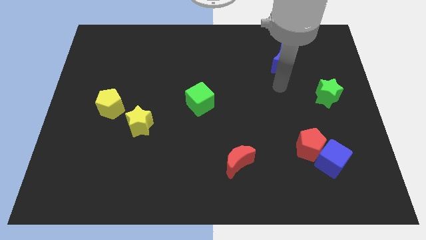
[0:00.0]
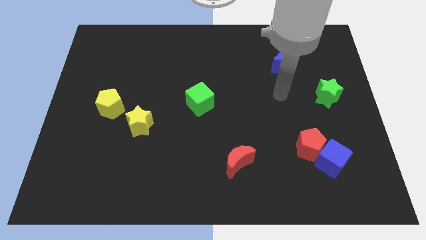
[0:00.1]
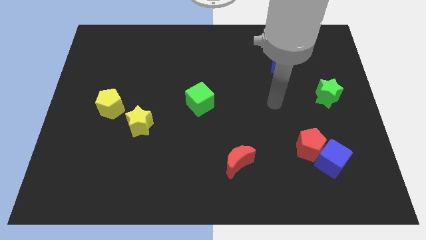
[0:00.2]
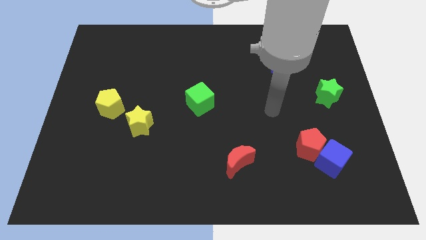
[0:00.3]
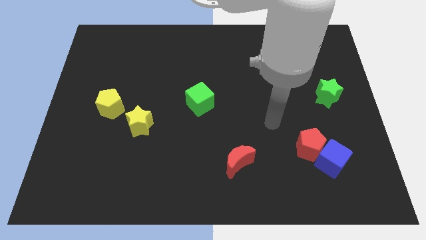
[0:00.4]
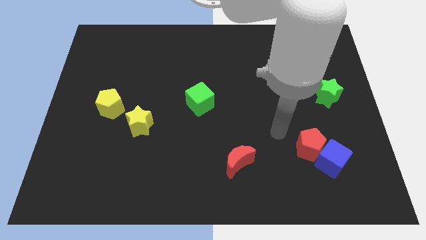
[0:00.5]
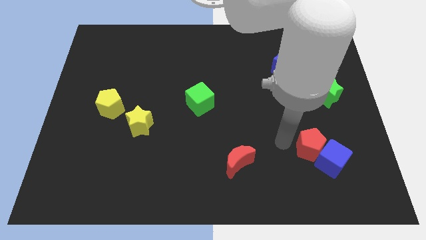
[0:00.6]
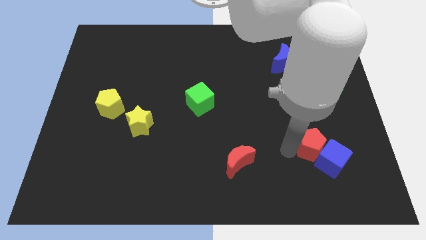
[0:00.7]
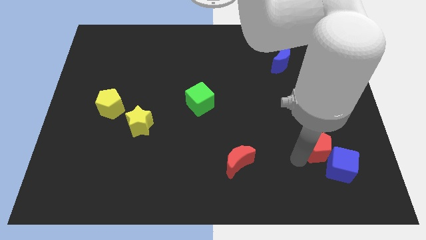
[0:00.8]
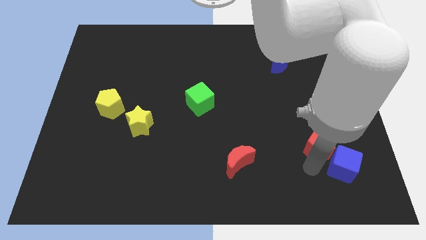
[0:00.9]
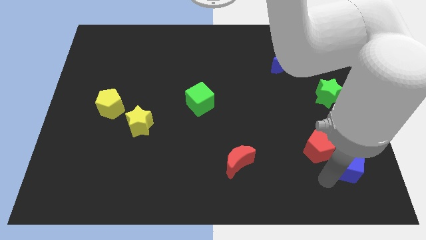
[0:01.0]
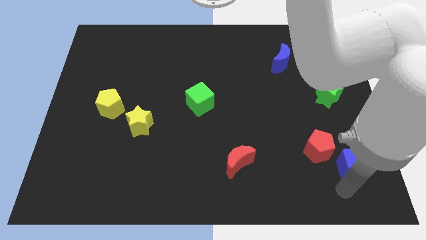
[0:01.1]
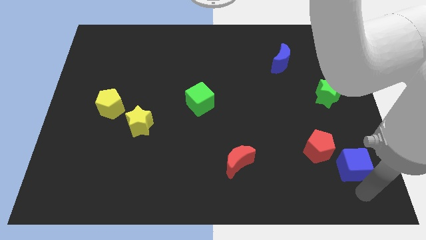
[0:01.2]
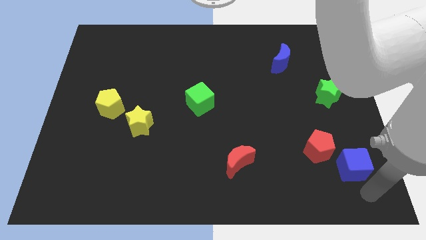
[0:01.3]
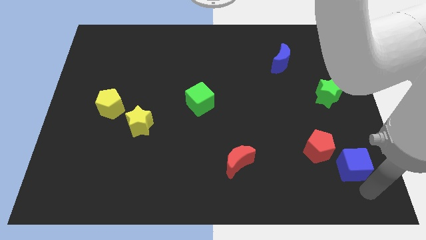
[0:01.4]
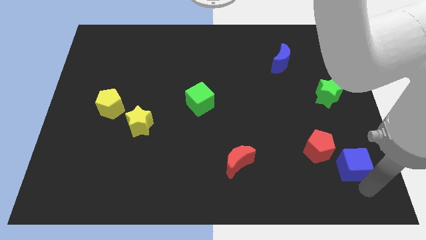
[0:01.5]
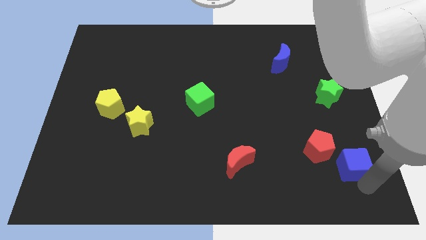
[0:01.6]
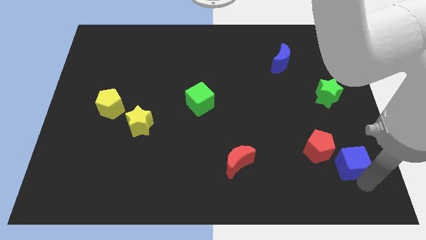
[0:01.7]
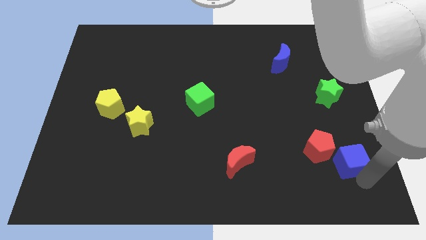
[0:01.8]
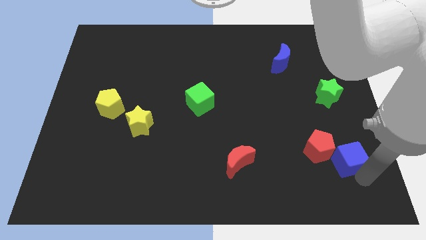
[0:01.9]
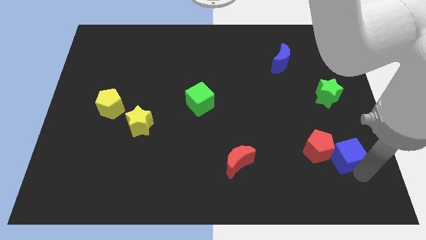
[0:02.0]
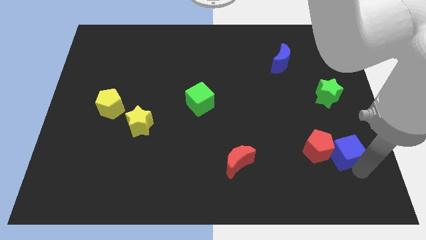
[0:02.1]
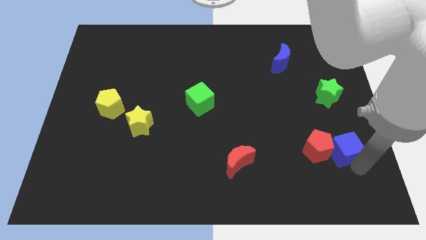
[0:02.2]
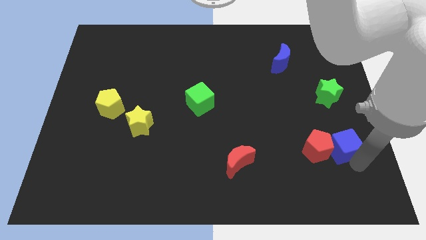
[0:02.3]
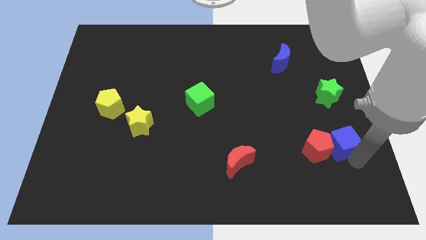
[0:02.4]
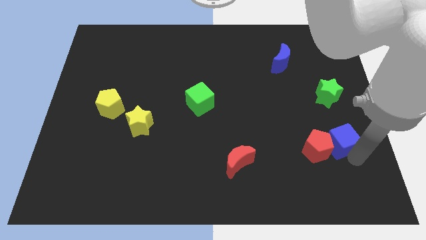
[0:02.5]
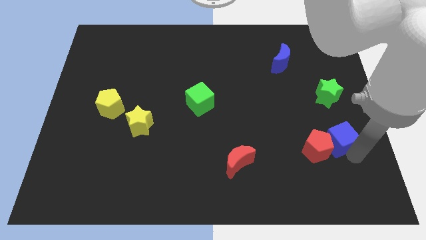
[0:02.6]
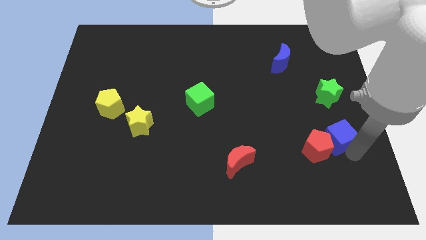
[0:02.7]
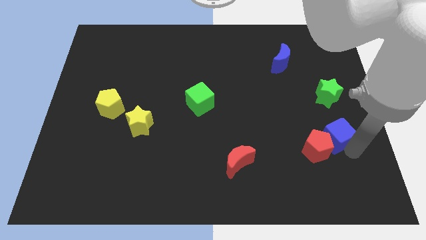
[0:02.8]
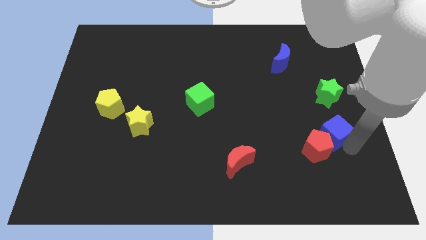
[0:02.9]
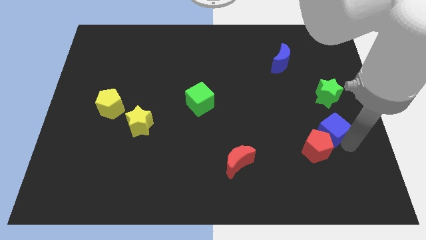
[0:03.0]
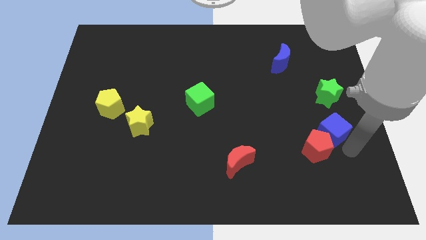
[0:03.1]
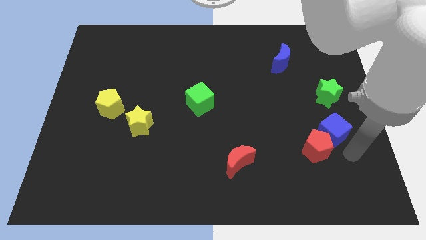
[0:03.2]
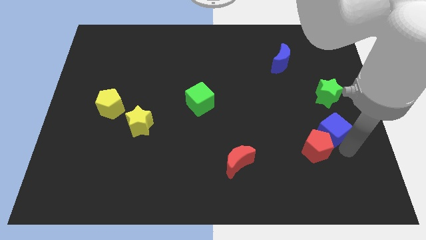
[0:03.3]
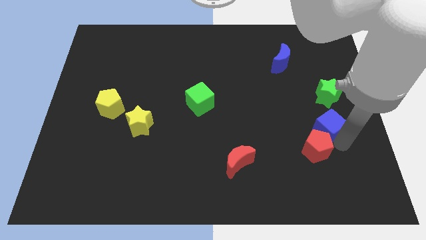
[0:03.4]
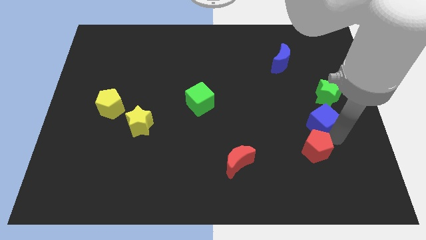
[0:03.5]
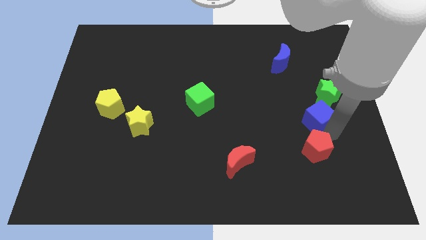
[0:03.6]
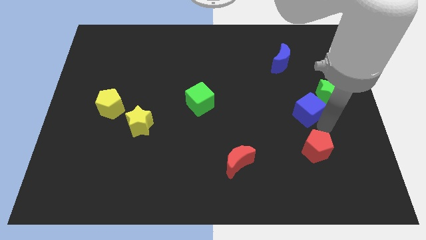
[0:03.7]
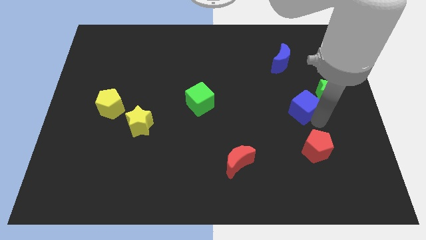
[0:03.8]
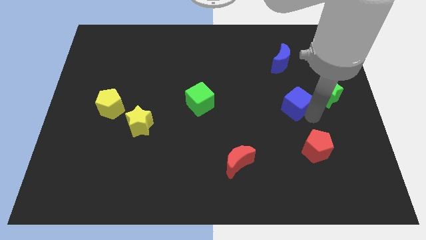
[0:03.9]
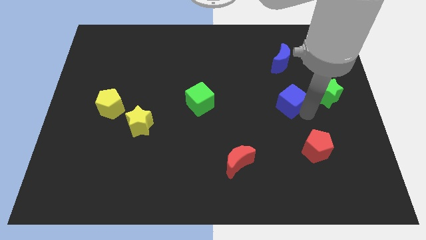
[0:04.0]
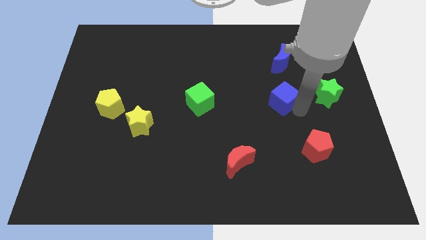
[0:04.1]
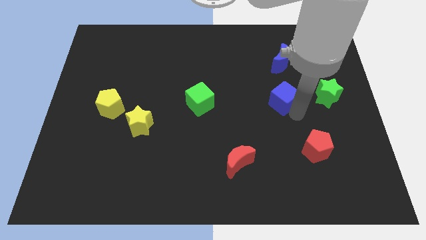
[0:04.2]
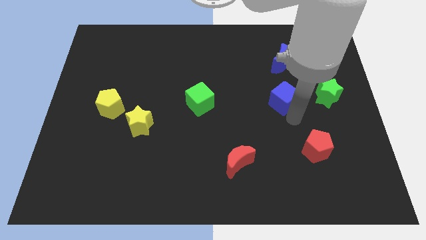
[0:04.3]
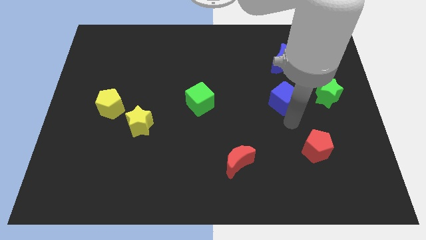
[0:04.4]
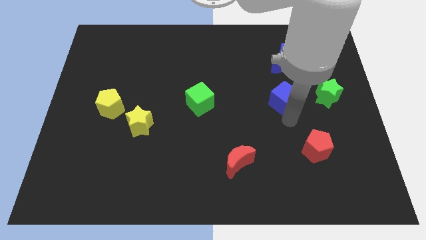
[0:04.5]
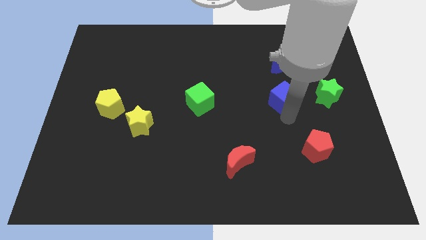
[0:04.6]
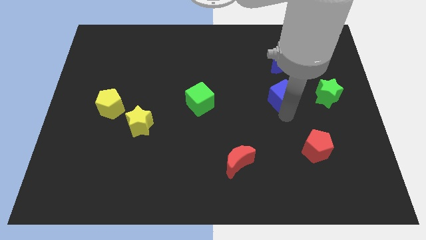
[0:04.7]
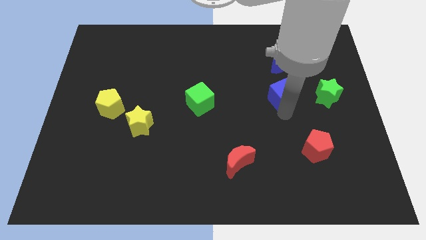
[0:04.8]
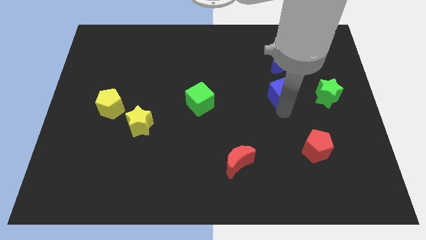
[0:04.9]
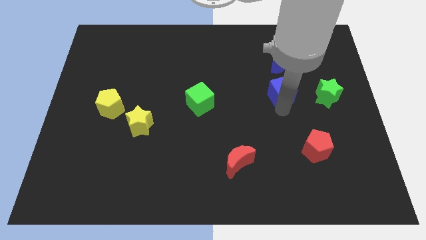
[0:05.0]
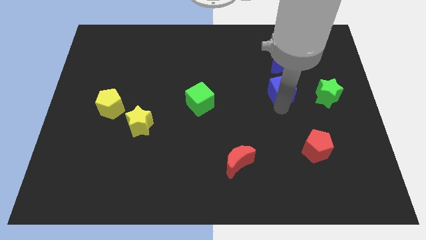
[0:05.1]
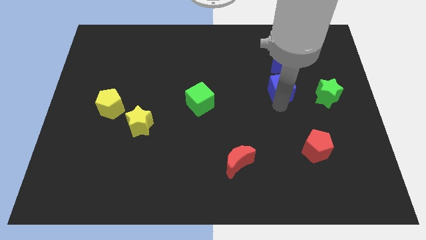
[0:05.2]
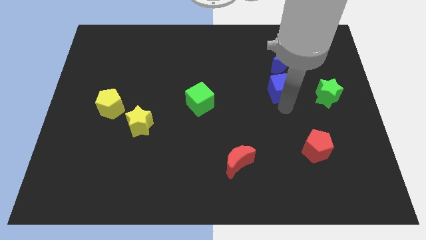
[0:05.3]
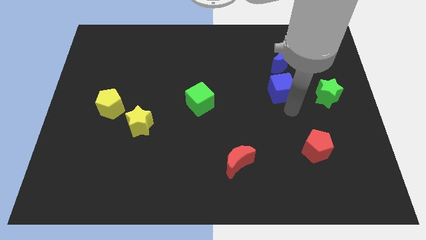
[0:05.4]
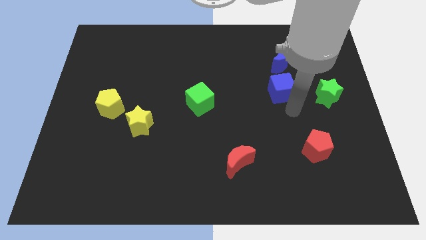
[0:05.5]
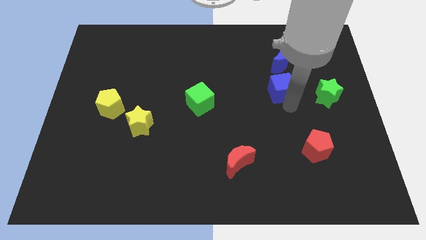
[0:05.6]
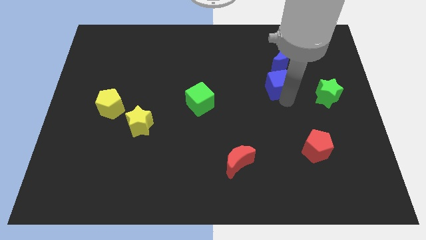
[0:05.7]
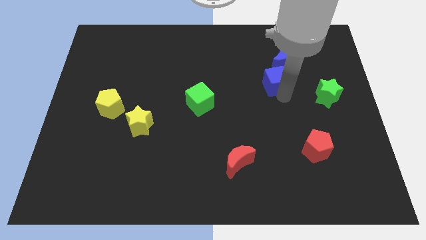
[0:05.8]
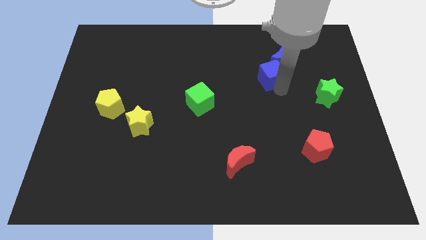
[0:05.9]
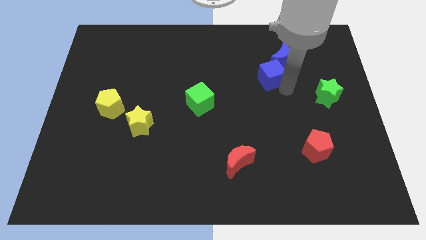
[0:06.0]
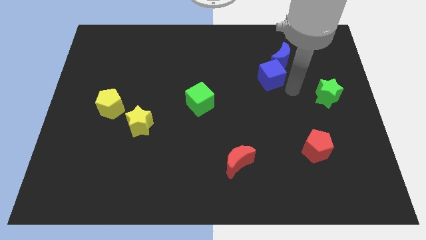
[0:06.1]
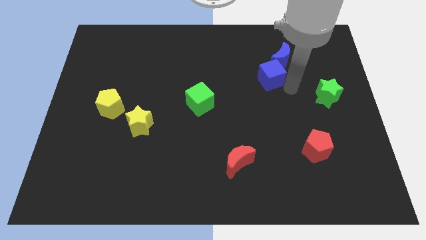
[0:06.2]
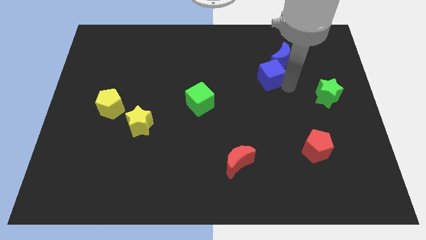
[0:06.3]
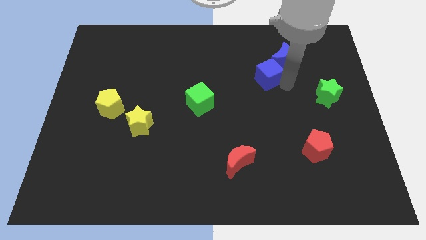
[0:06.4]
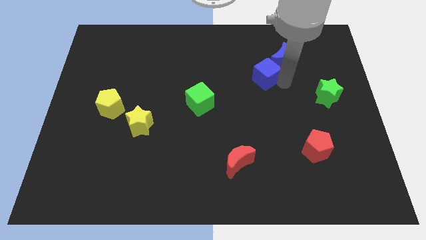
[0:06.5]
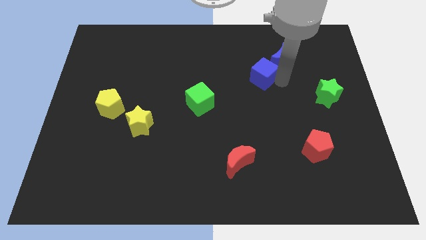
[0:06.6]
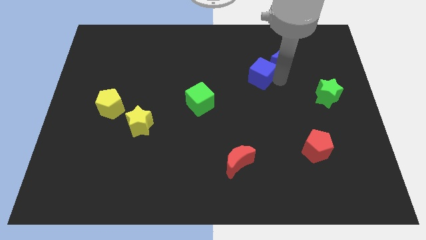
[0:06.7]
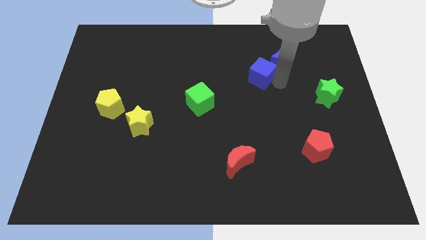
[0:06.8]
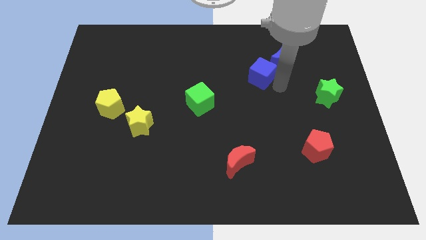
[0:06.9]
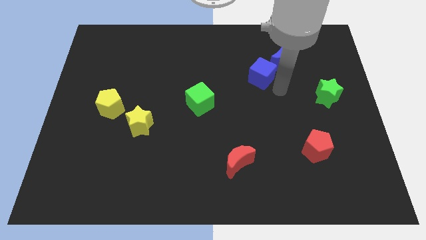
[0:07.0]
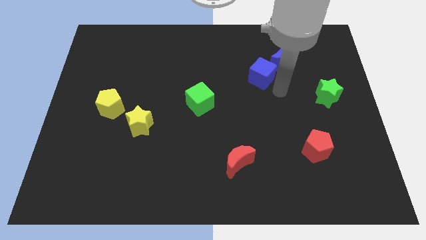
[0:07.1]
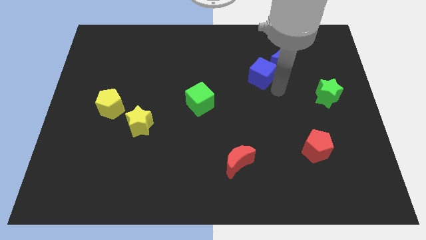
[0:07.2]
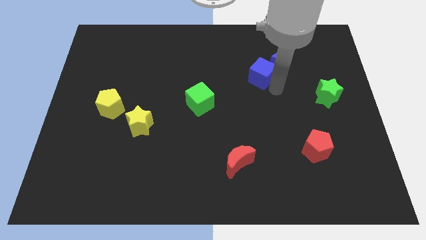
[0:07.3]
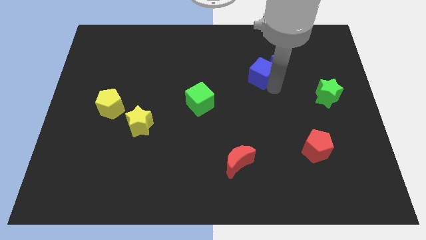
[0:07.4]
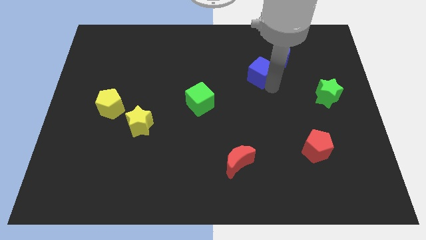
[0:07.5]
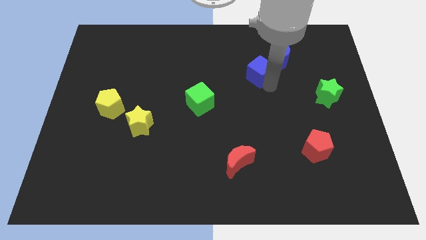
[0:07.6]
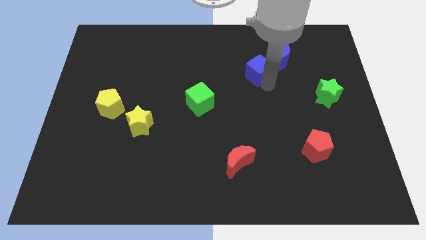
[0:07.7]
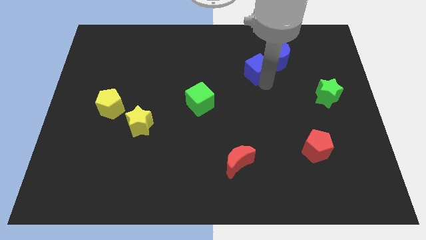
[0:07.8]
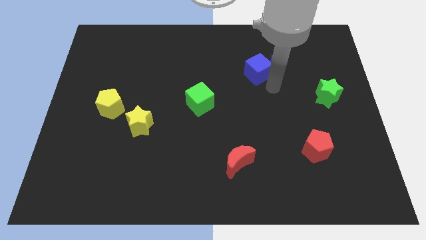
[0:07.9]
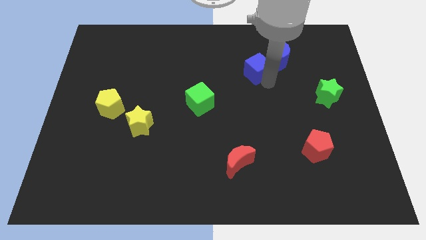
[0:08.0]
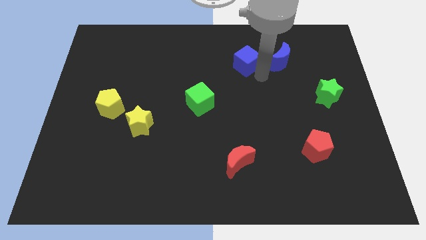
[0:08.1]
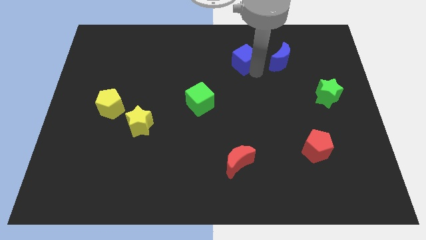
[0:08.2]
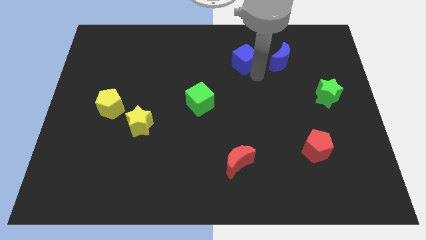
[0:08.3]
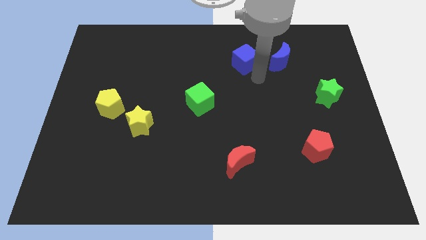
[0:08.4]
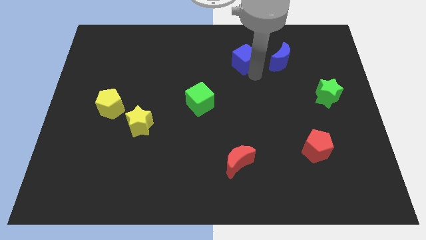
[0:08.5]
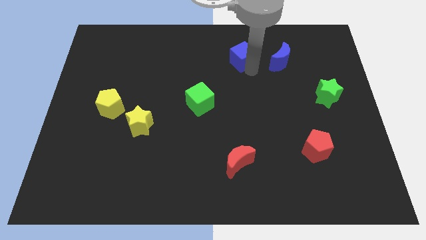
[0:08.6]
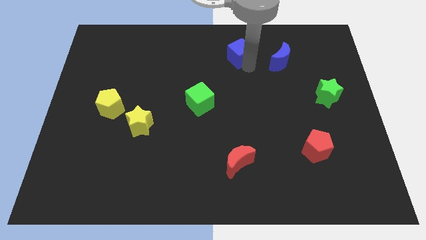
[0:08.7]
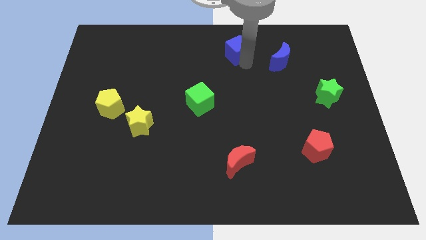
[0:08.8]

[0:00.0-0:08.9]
put the blue cube to the top side
